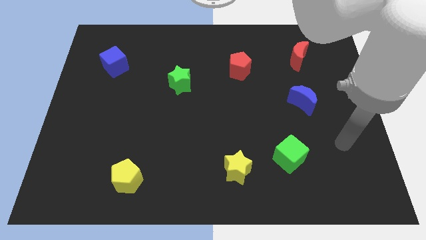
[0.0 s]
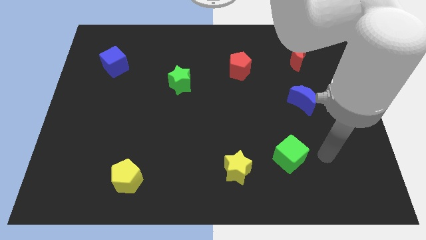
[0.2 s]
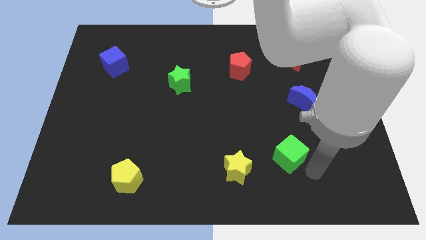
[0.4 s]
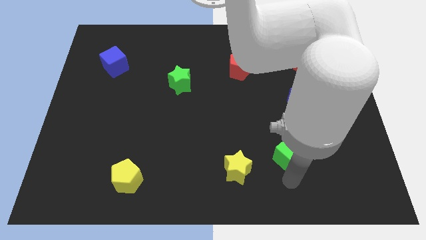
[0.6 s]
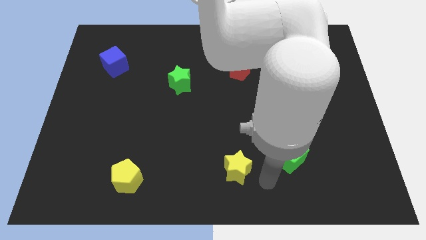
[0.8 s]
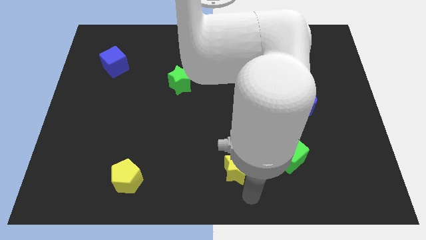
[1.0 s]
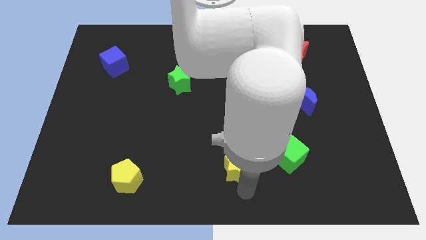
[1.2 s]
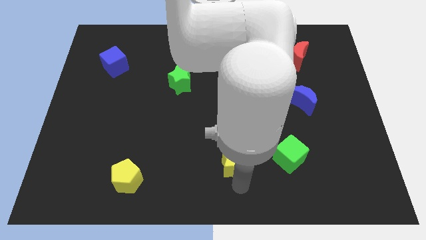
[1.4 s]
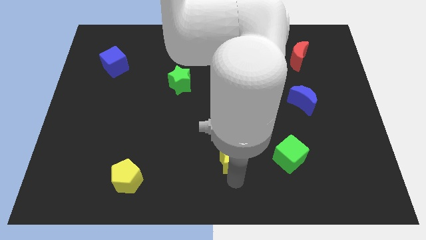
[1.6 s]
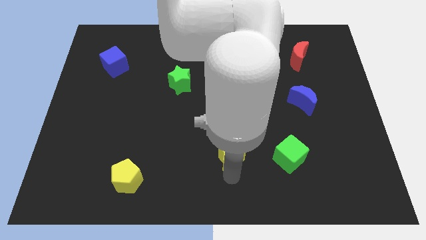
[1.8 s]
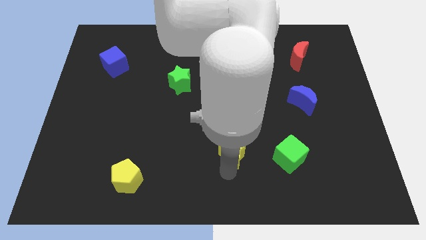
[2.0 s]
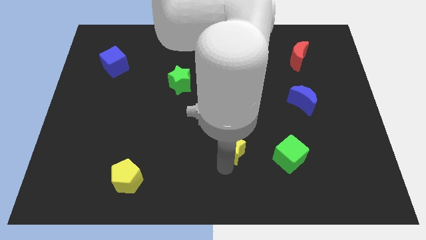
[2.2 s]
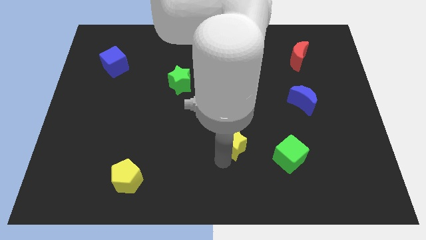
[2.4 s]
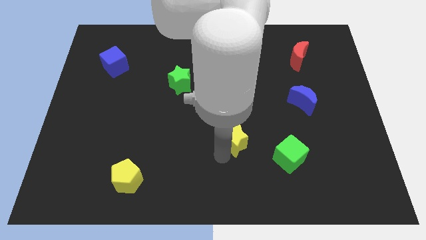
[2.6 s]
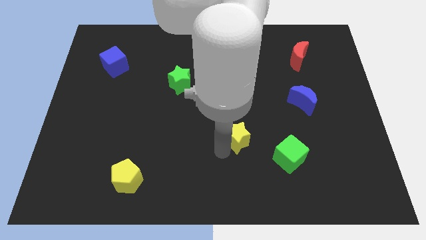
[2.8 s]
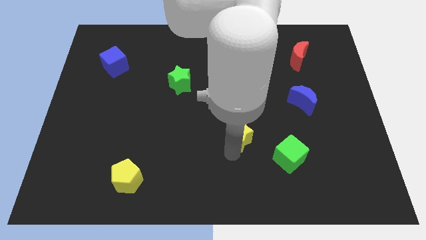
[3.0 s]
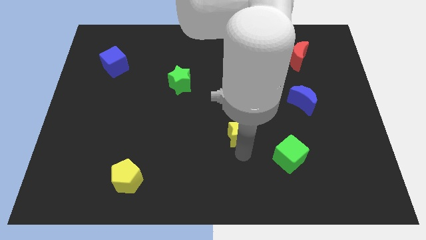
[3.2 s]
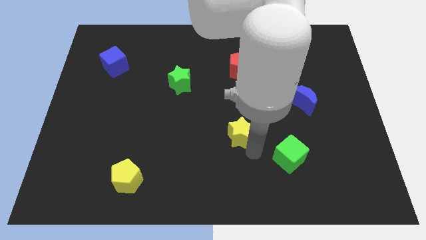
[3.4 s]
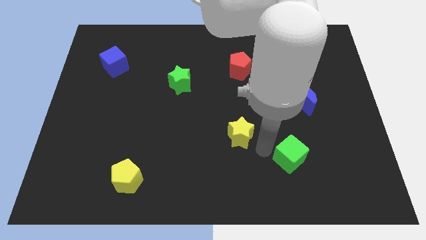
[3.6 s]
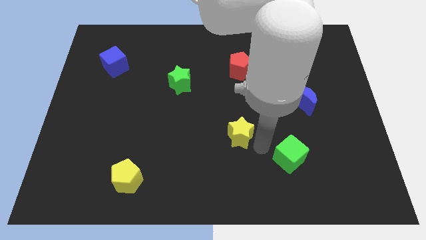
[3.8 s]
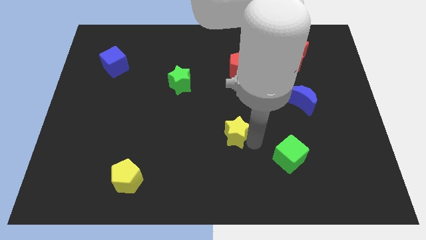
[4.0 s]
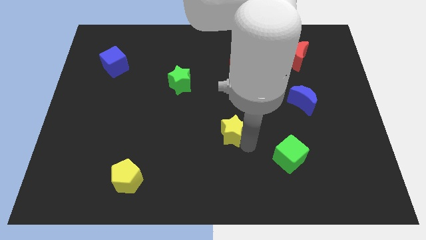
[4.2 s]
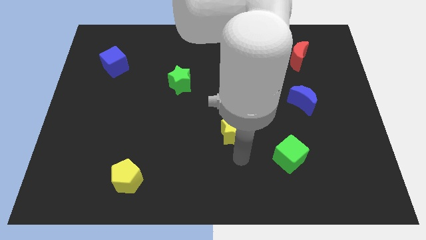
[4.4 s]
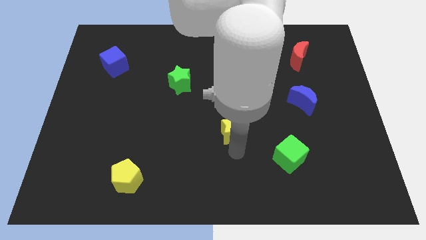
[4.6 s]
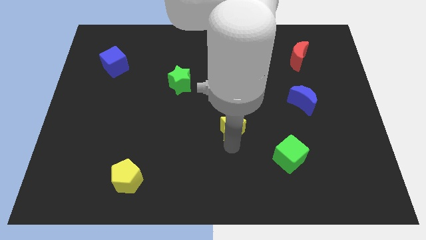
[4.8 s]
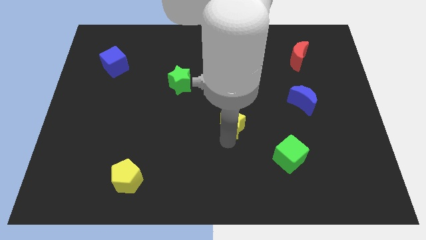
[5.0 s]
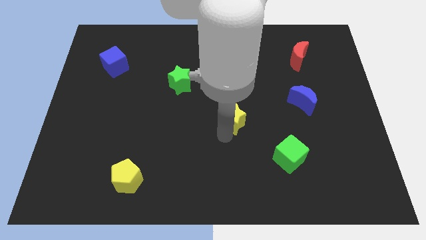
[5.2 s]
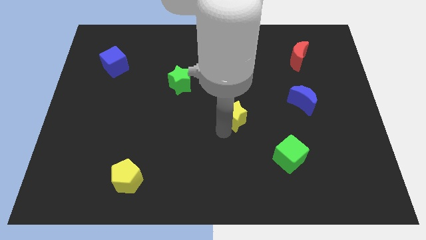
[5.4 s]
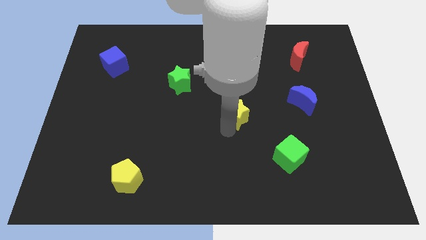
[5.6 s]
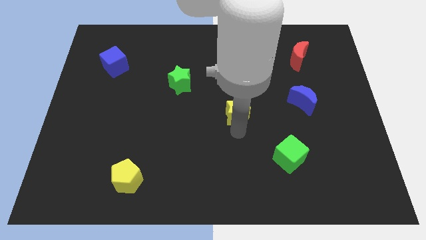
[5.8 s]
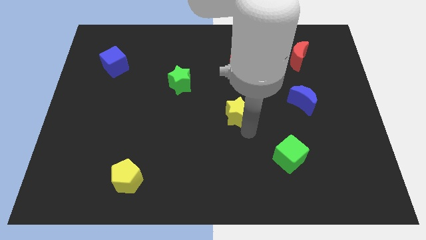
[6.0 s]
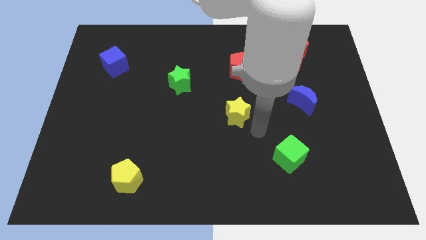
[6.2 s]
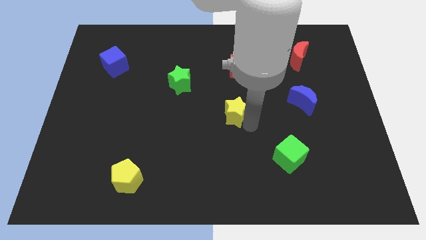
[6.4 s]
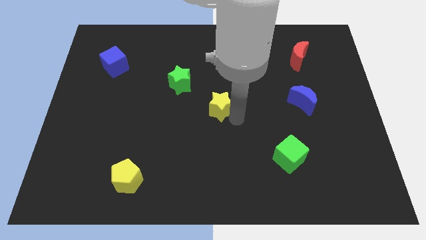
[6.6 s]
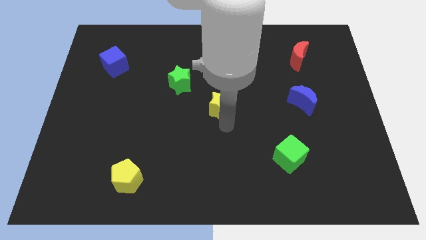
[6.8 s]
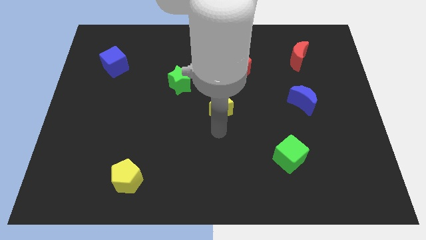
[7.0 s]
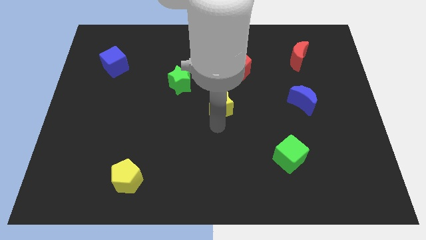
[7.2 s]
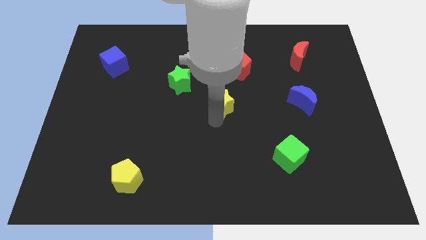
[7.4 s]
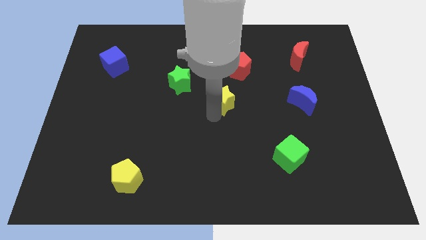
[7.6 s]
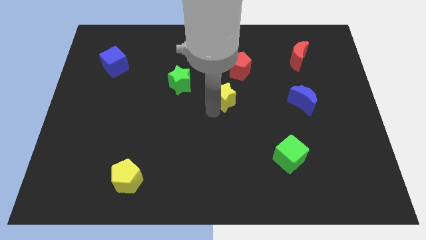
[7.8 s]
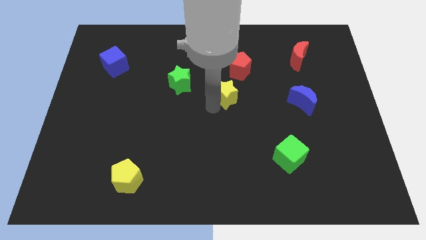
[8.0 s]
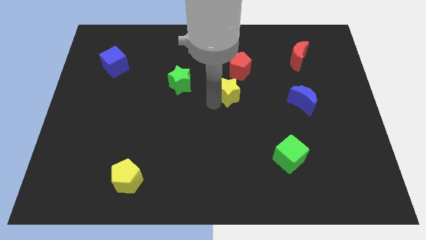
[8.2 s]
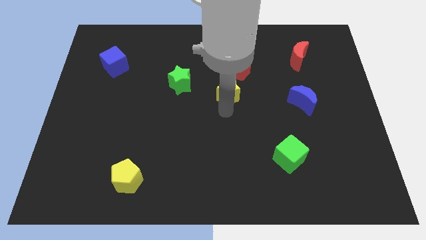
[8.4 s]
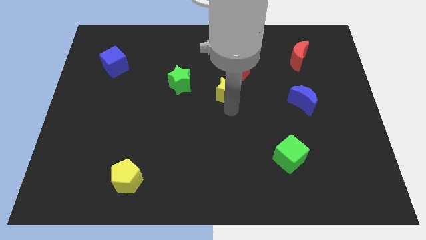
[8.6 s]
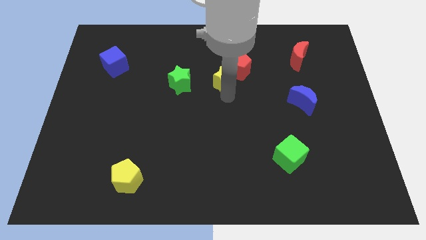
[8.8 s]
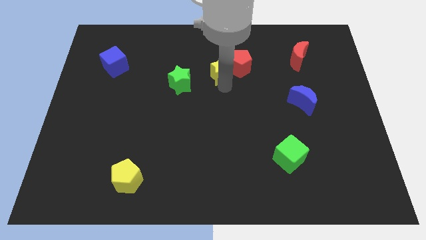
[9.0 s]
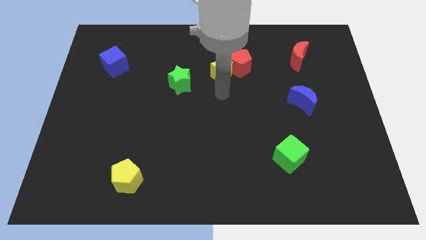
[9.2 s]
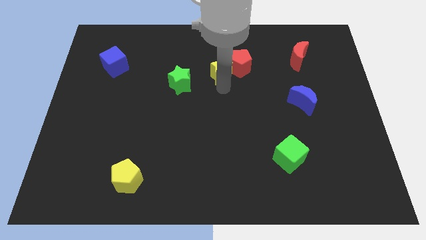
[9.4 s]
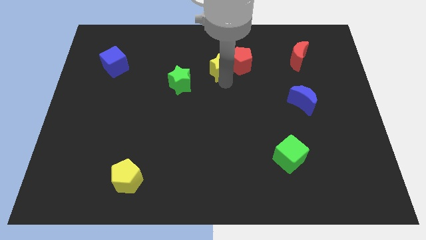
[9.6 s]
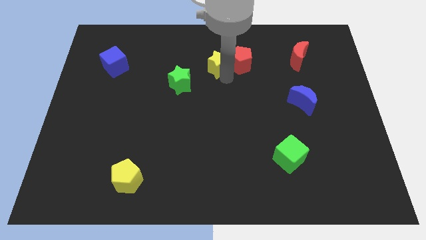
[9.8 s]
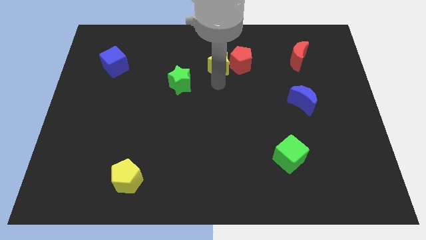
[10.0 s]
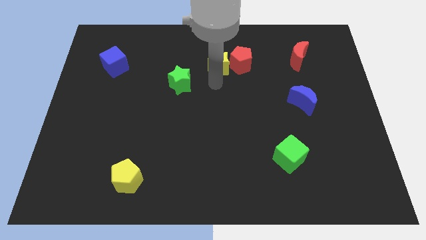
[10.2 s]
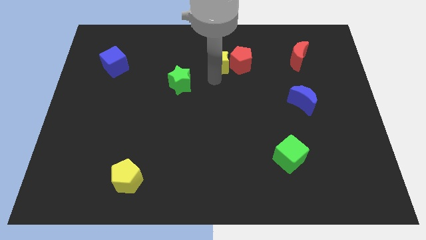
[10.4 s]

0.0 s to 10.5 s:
slide the yellow star to the top left of the red pentagon

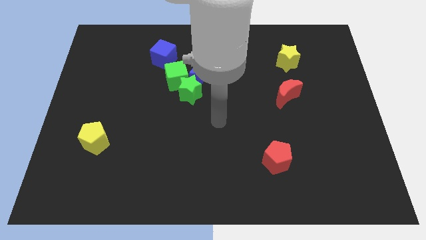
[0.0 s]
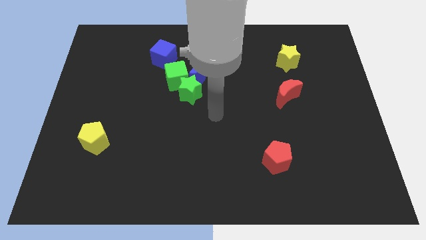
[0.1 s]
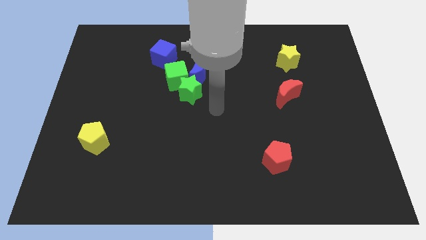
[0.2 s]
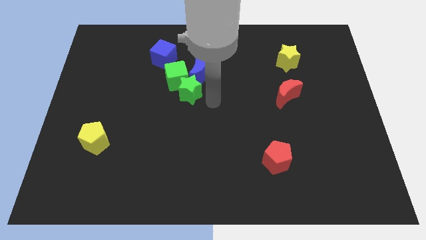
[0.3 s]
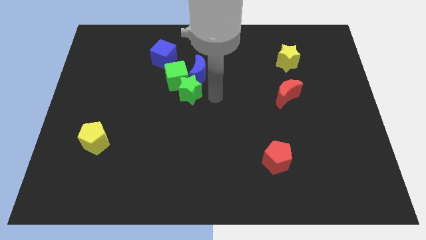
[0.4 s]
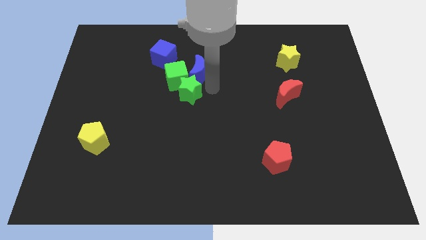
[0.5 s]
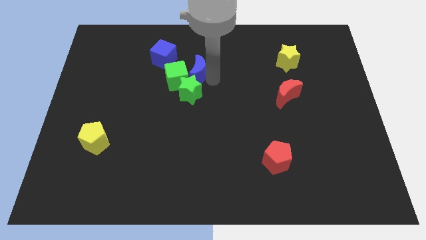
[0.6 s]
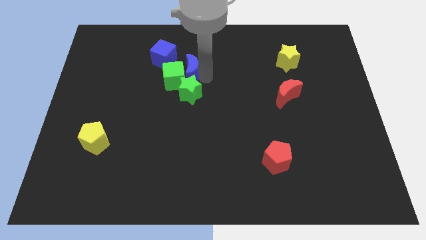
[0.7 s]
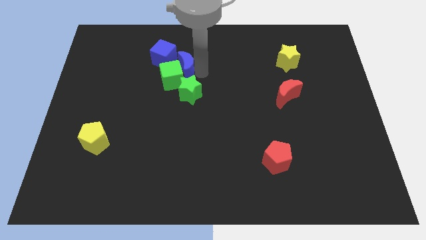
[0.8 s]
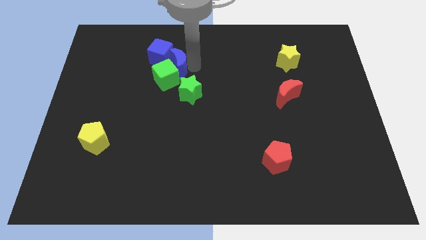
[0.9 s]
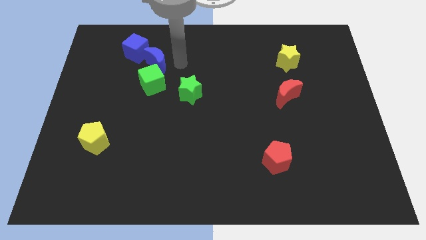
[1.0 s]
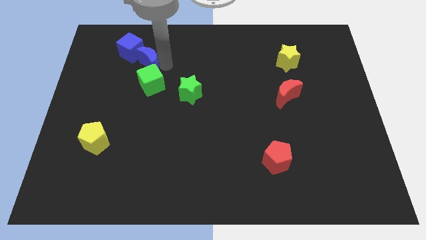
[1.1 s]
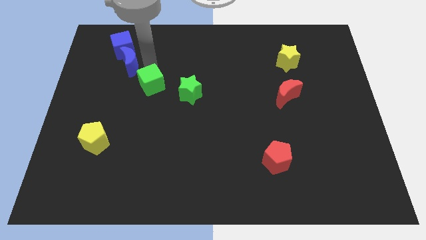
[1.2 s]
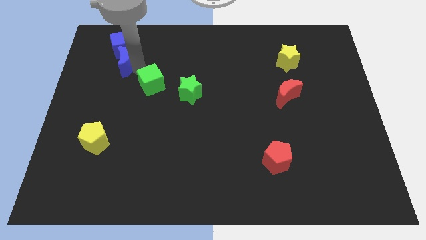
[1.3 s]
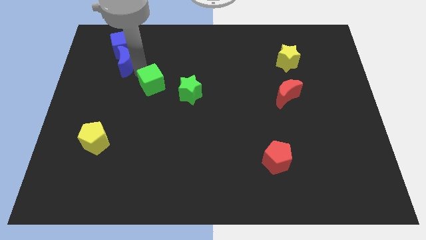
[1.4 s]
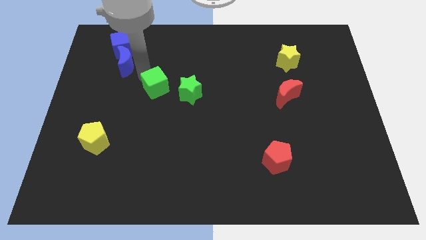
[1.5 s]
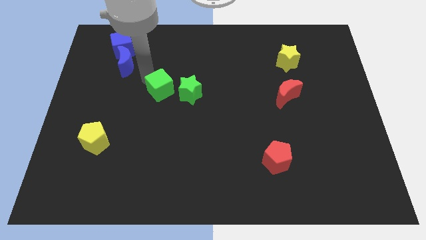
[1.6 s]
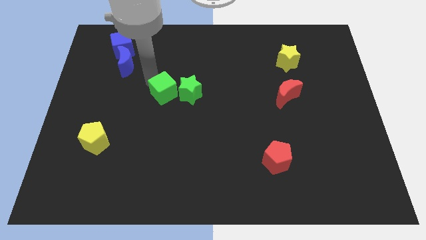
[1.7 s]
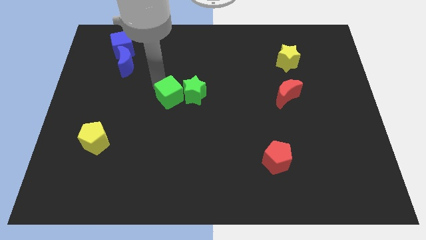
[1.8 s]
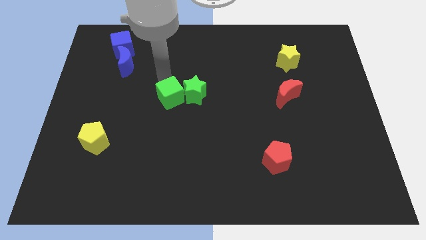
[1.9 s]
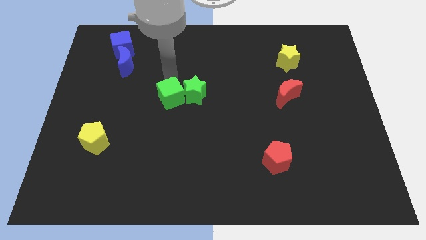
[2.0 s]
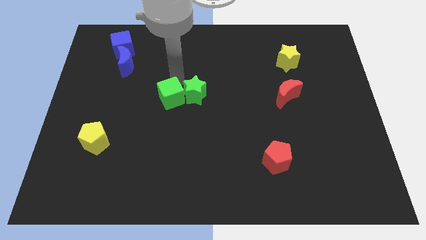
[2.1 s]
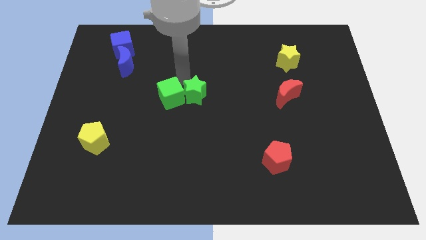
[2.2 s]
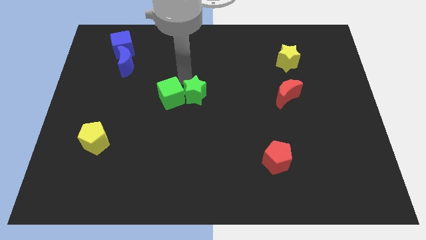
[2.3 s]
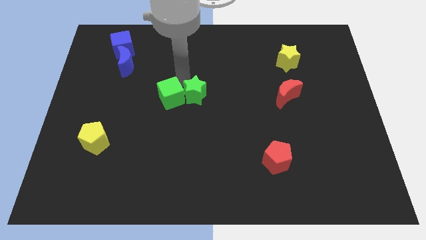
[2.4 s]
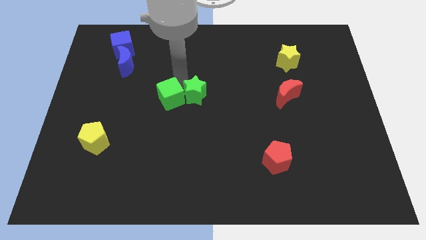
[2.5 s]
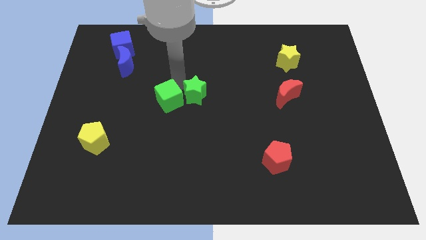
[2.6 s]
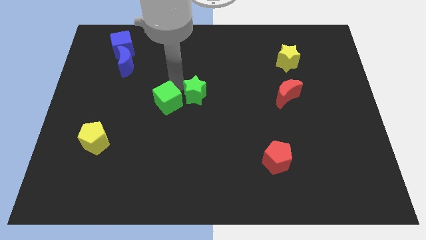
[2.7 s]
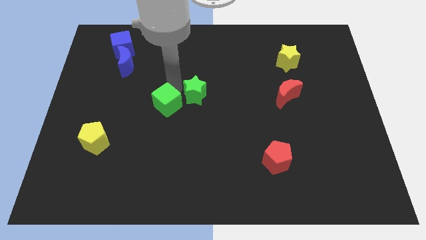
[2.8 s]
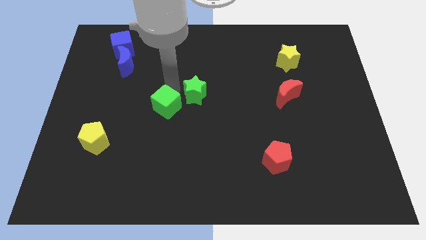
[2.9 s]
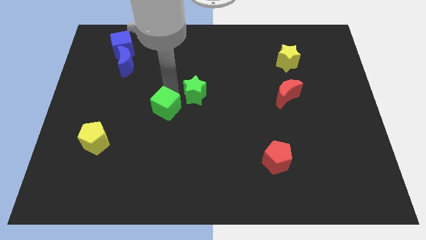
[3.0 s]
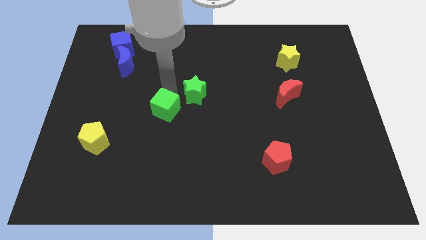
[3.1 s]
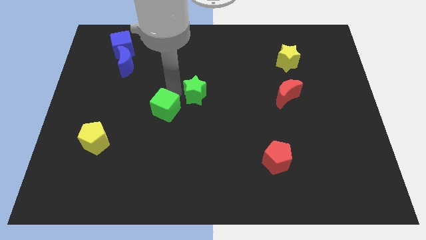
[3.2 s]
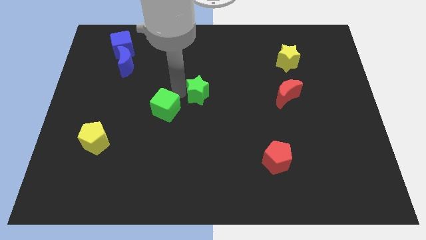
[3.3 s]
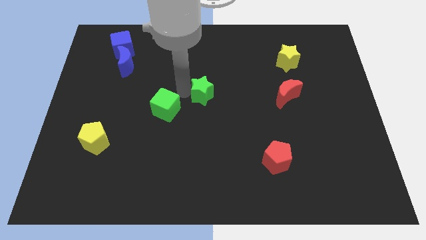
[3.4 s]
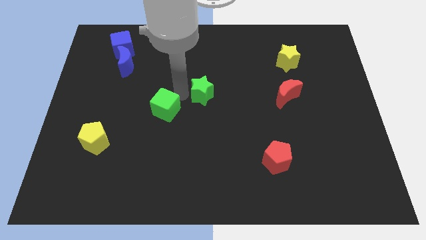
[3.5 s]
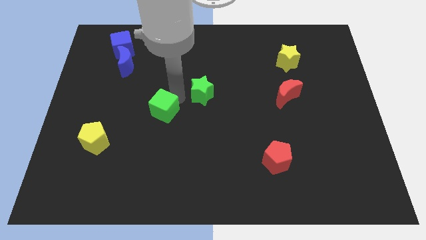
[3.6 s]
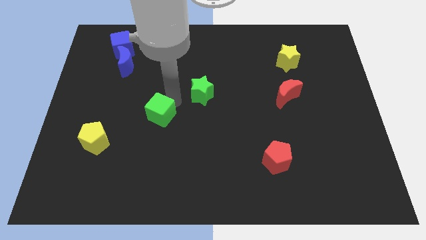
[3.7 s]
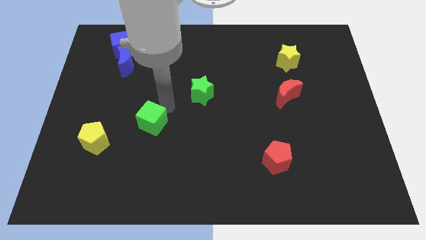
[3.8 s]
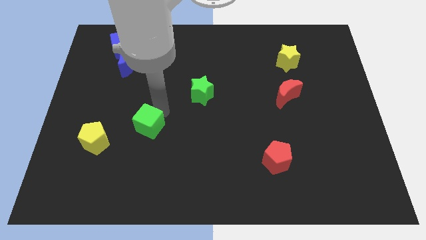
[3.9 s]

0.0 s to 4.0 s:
put the green cube just right of the yellow pentagon
